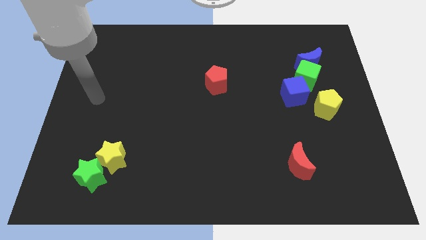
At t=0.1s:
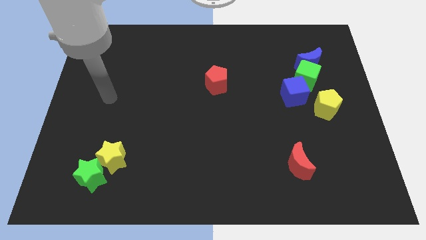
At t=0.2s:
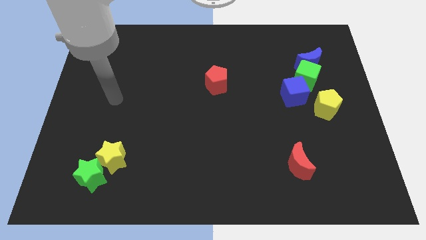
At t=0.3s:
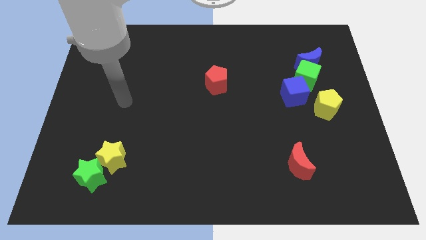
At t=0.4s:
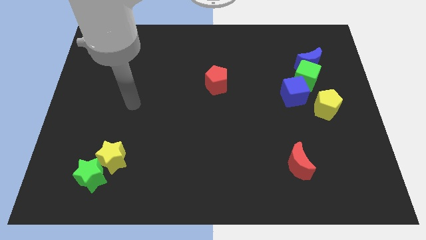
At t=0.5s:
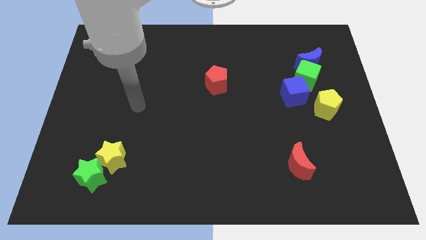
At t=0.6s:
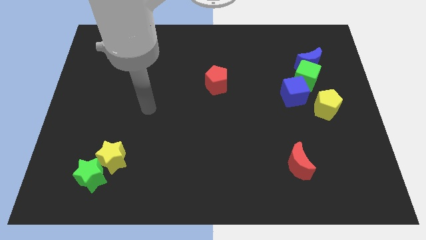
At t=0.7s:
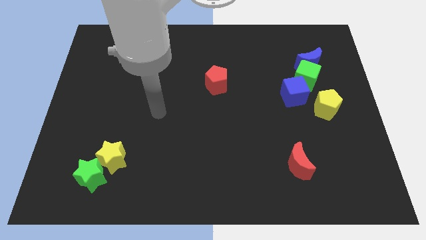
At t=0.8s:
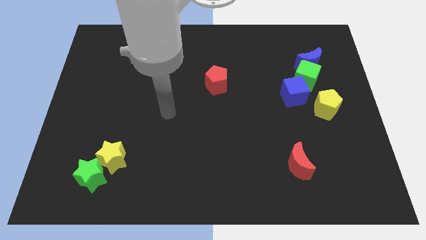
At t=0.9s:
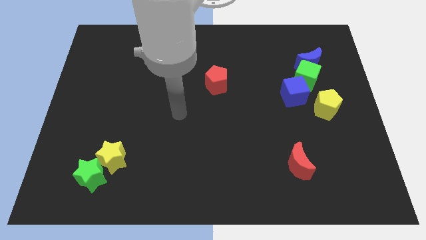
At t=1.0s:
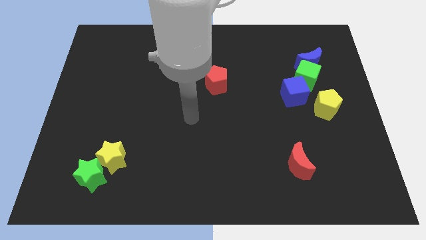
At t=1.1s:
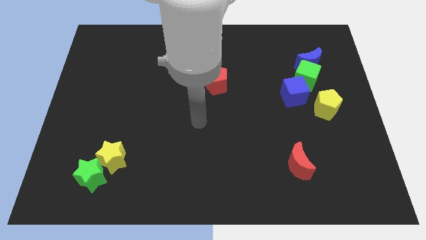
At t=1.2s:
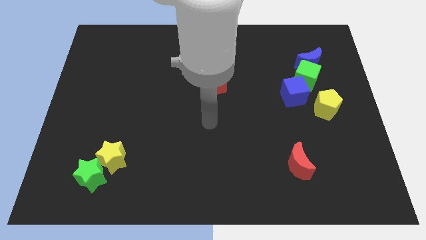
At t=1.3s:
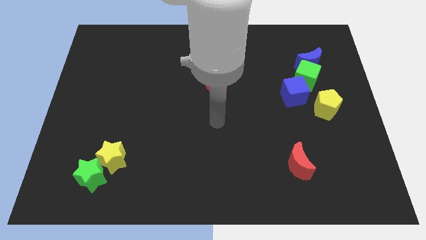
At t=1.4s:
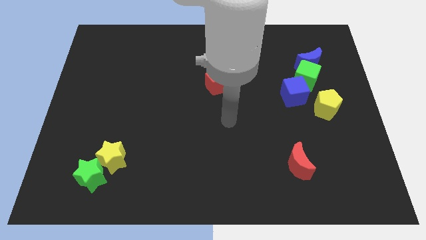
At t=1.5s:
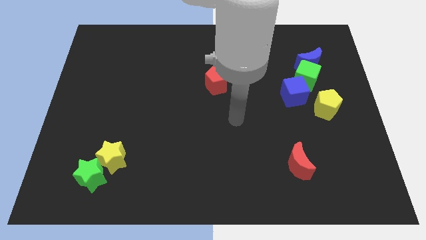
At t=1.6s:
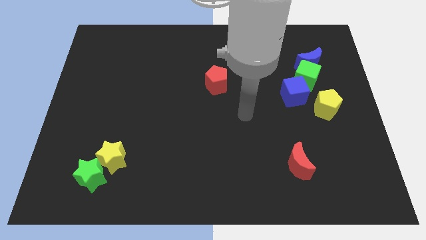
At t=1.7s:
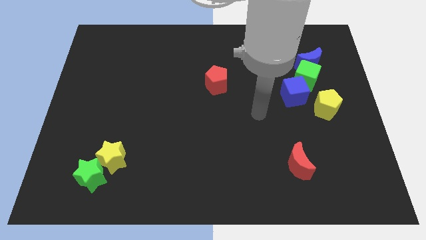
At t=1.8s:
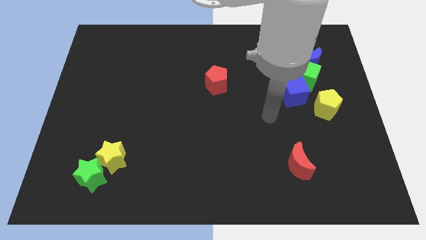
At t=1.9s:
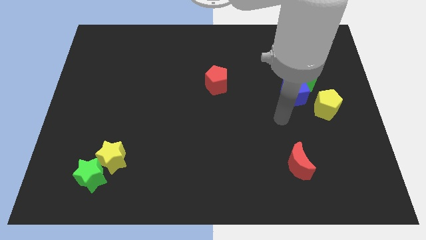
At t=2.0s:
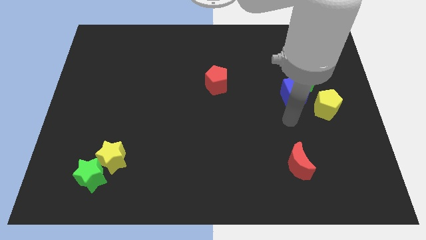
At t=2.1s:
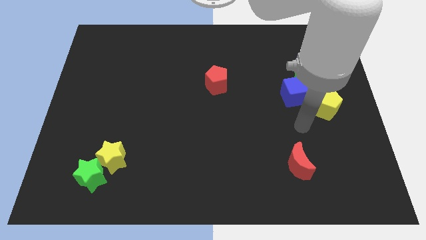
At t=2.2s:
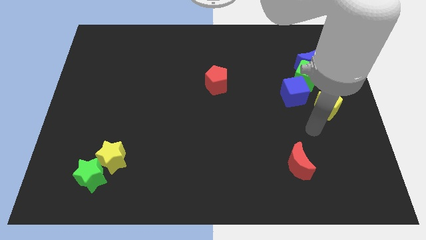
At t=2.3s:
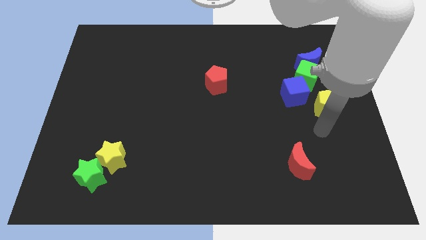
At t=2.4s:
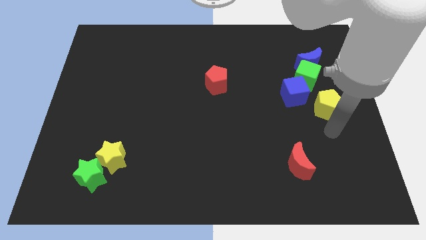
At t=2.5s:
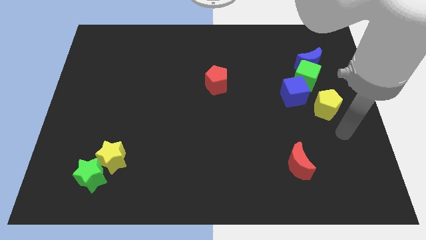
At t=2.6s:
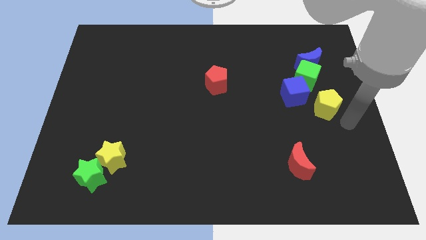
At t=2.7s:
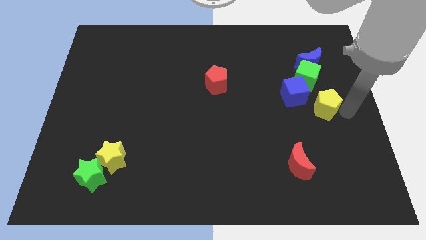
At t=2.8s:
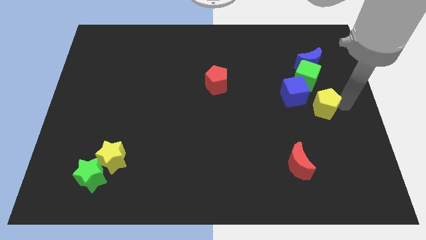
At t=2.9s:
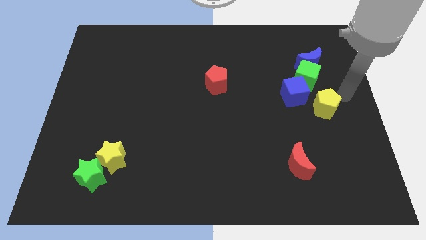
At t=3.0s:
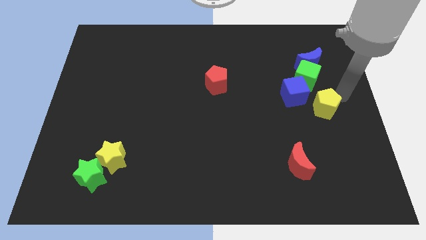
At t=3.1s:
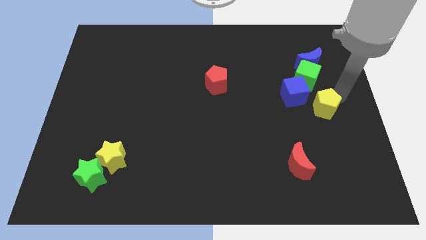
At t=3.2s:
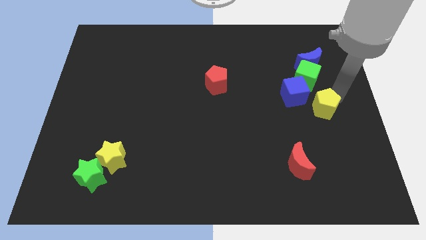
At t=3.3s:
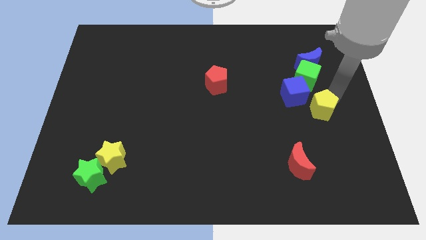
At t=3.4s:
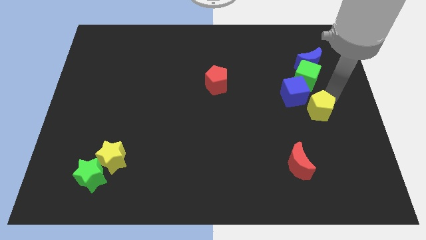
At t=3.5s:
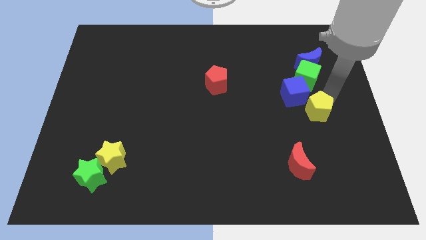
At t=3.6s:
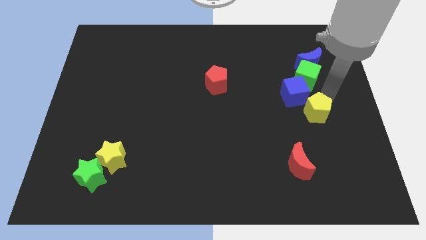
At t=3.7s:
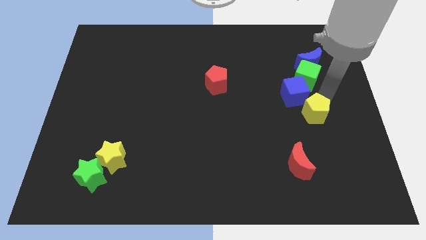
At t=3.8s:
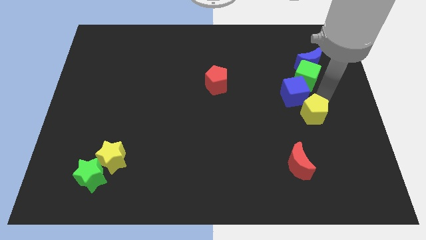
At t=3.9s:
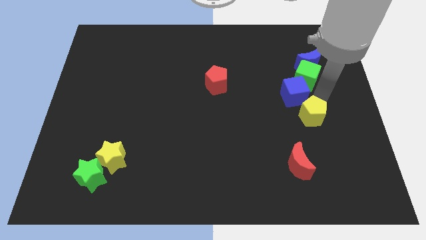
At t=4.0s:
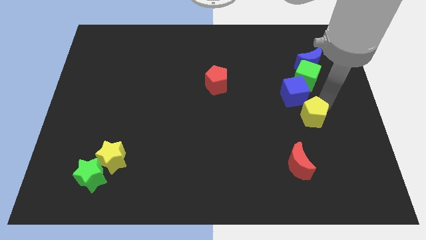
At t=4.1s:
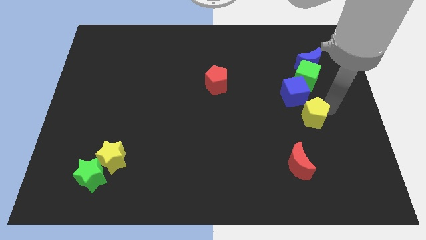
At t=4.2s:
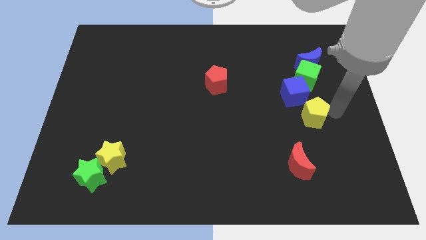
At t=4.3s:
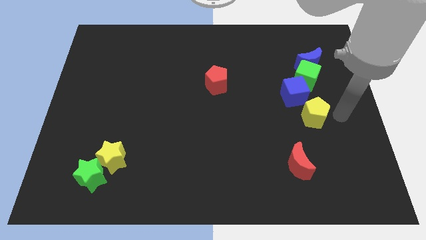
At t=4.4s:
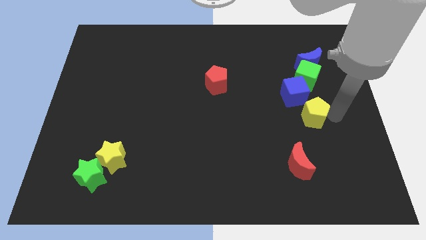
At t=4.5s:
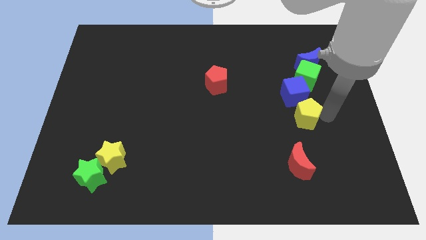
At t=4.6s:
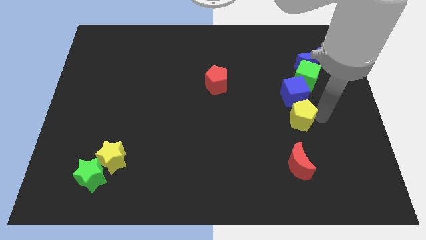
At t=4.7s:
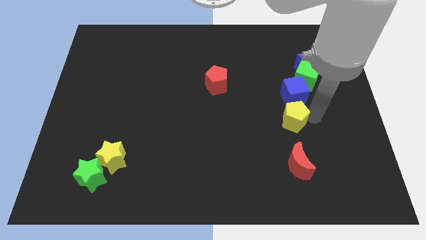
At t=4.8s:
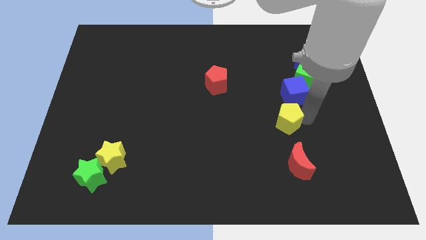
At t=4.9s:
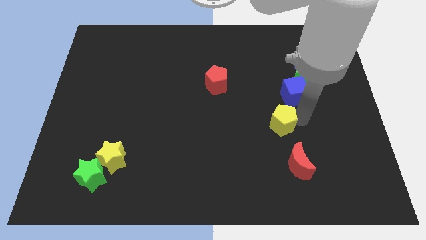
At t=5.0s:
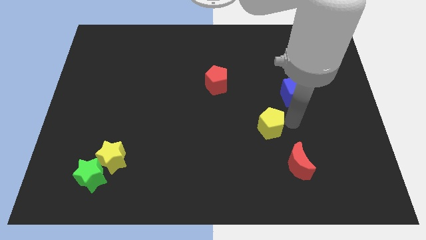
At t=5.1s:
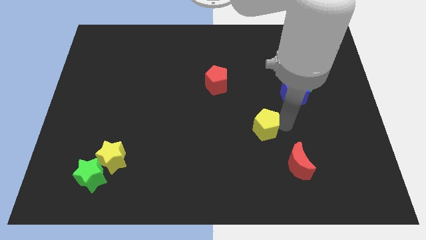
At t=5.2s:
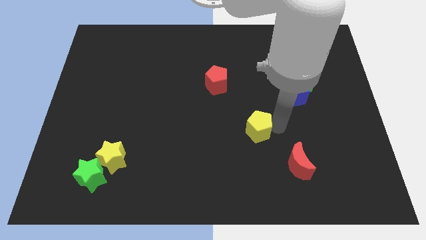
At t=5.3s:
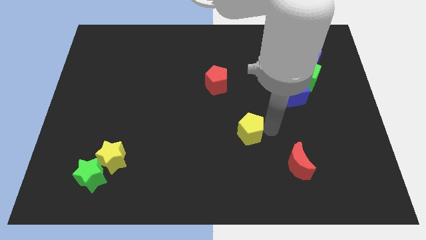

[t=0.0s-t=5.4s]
slide the yellow pentagon to the center of the board

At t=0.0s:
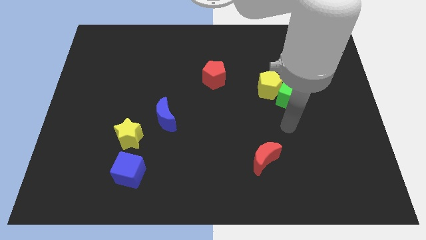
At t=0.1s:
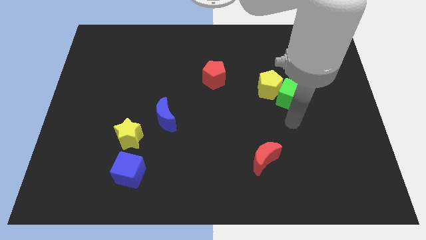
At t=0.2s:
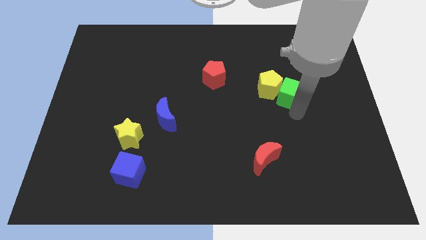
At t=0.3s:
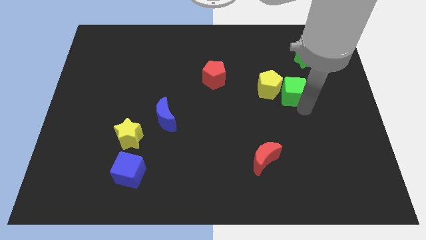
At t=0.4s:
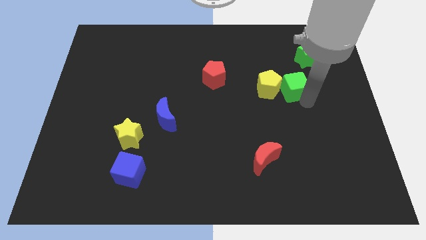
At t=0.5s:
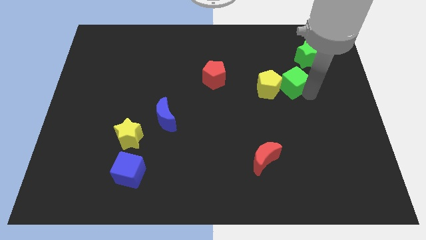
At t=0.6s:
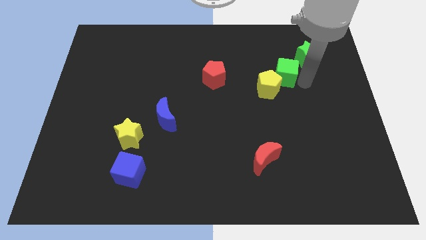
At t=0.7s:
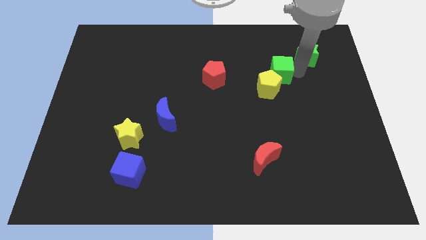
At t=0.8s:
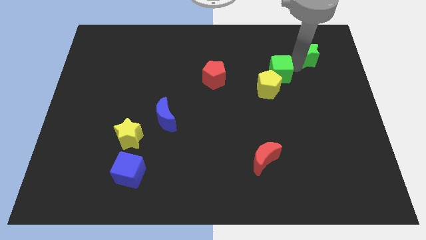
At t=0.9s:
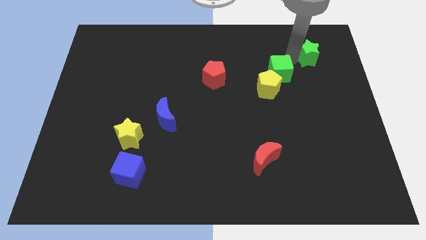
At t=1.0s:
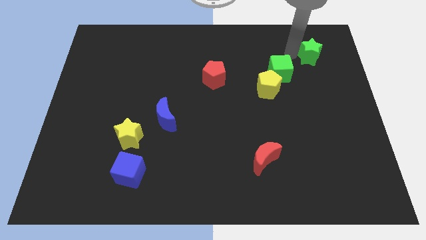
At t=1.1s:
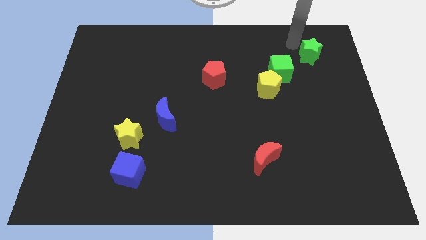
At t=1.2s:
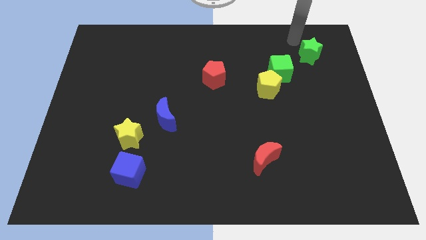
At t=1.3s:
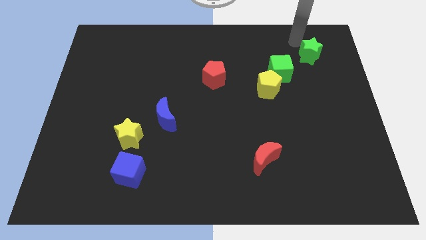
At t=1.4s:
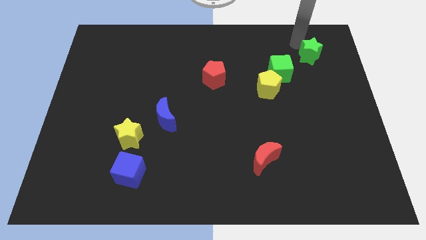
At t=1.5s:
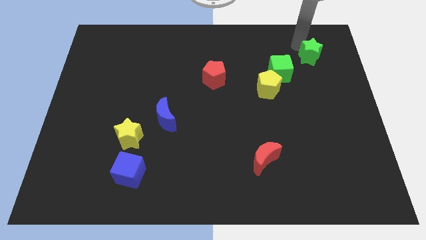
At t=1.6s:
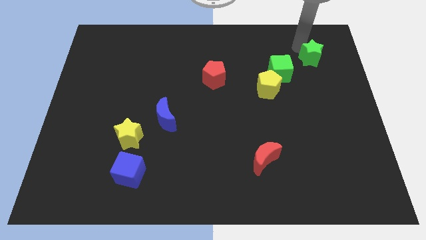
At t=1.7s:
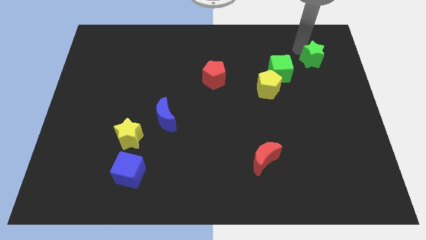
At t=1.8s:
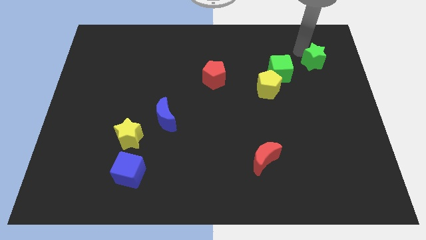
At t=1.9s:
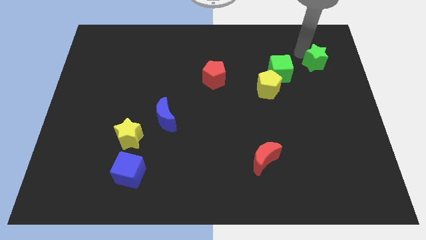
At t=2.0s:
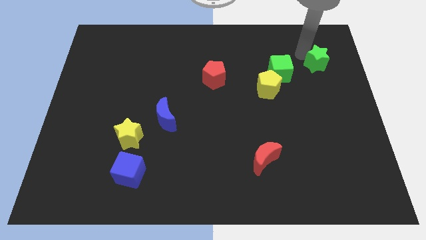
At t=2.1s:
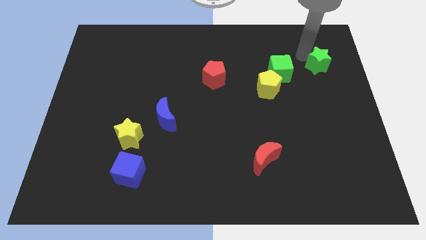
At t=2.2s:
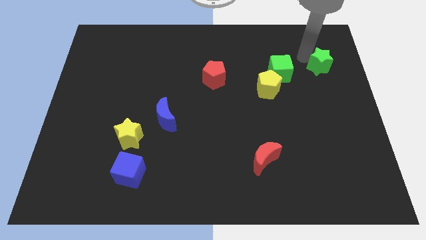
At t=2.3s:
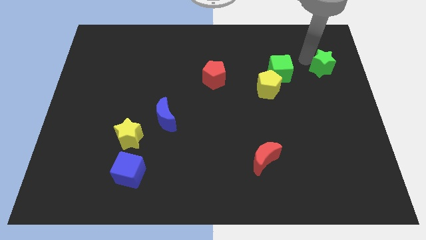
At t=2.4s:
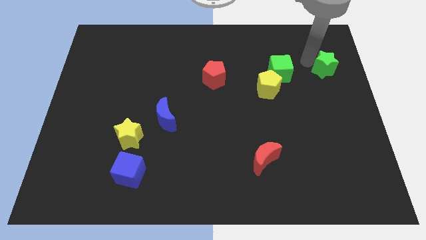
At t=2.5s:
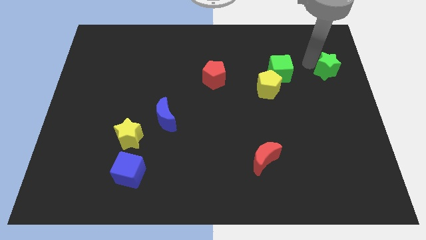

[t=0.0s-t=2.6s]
put the green star to the center right
